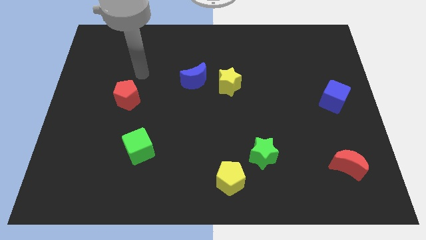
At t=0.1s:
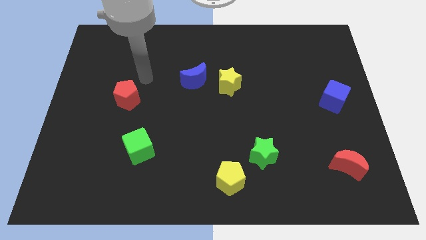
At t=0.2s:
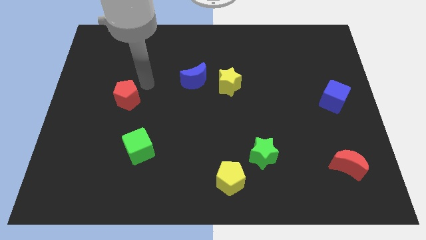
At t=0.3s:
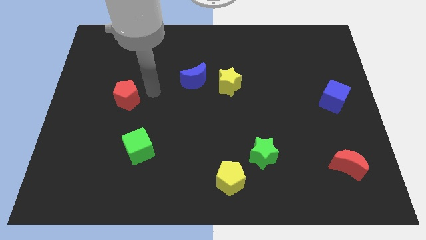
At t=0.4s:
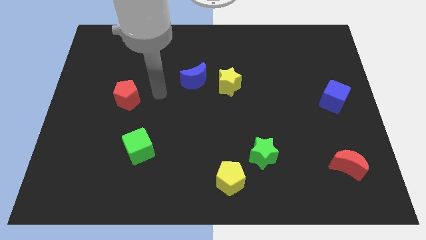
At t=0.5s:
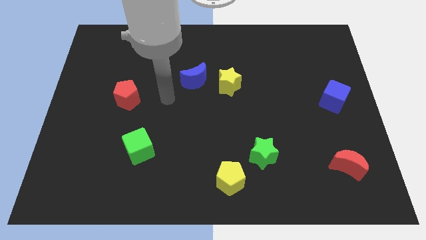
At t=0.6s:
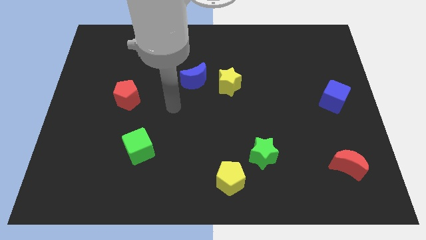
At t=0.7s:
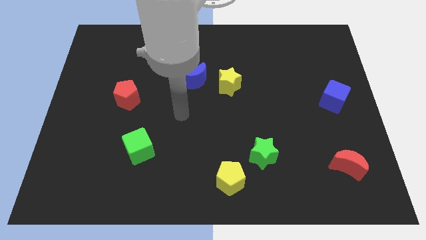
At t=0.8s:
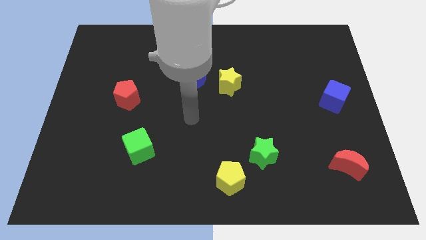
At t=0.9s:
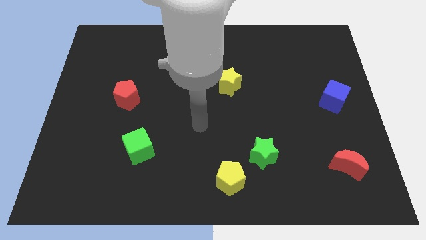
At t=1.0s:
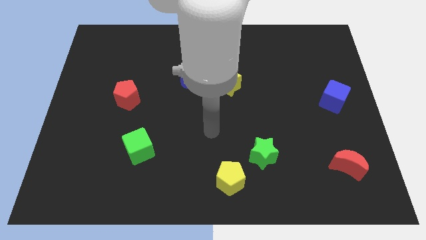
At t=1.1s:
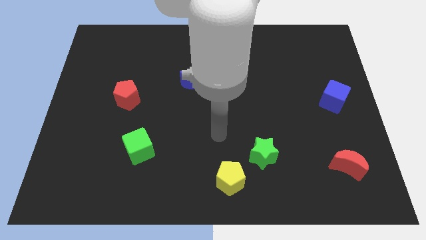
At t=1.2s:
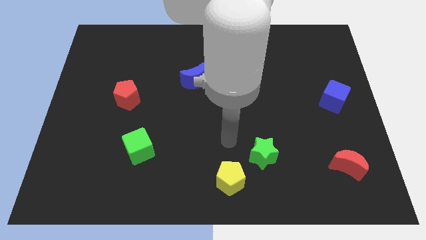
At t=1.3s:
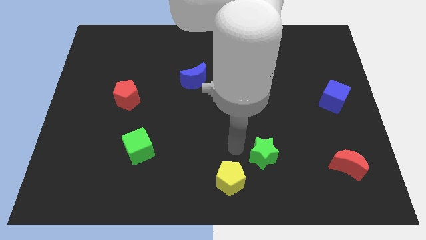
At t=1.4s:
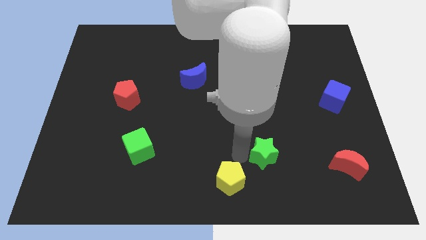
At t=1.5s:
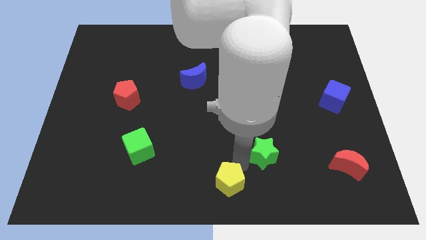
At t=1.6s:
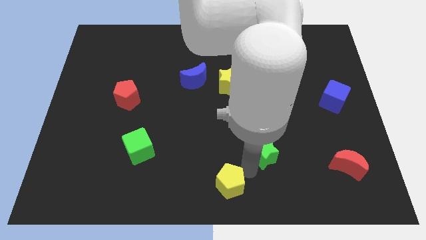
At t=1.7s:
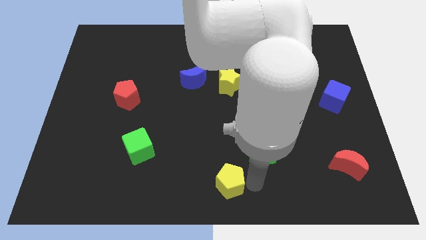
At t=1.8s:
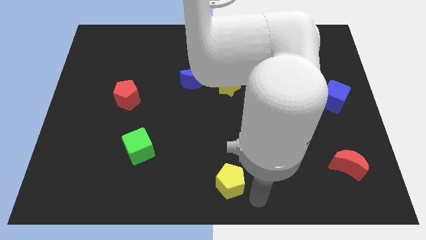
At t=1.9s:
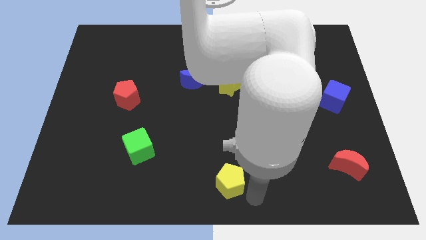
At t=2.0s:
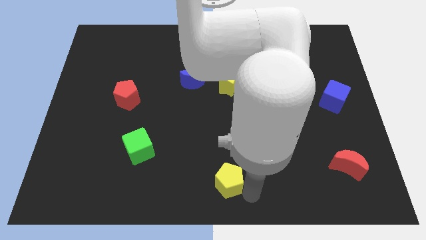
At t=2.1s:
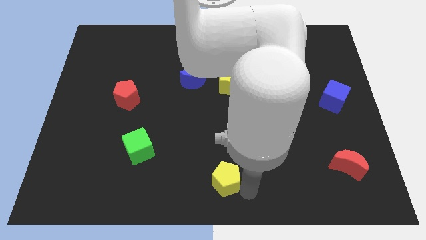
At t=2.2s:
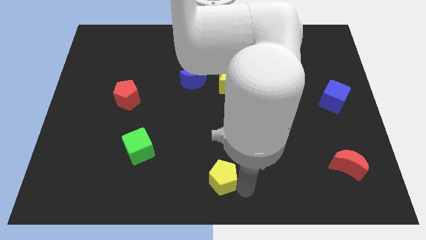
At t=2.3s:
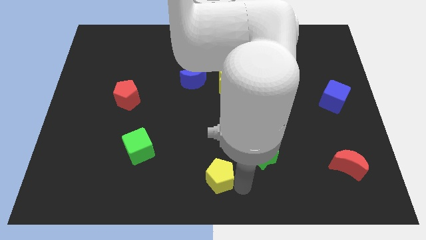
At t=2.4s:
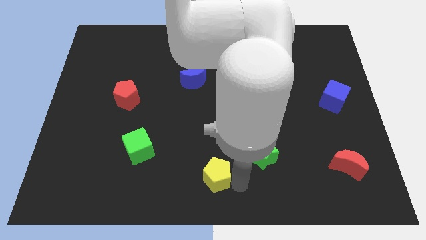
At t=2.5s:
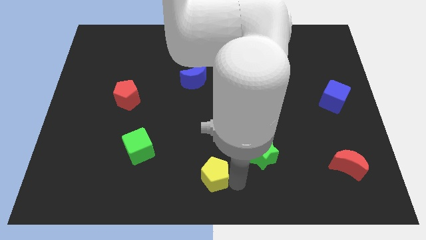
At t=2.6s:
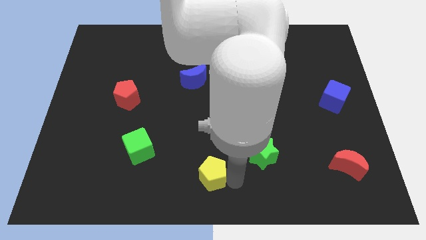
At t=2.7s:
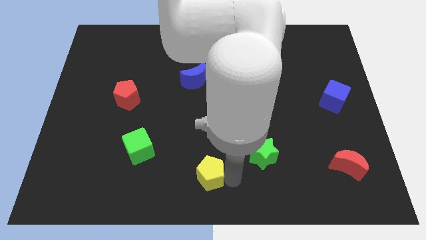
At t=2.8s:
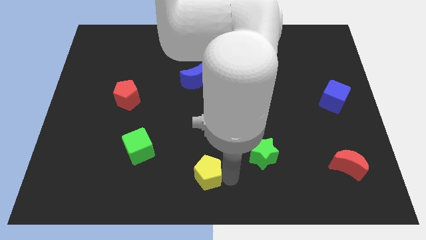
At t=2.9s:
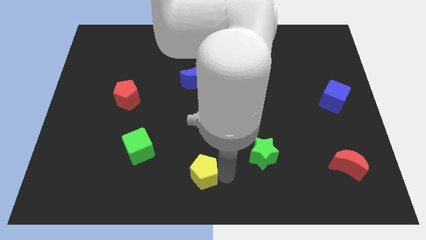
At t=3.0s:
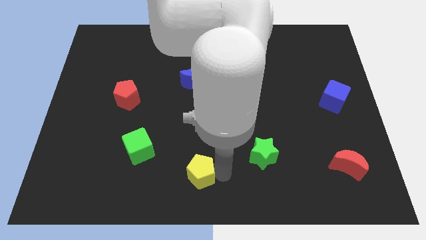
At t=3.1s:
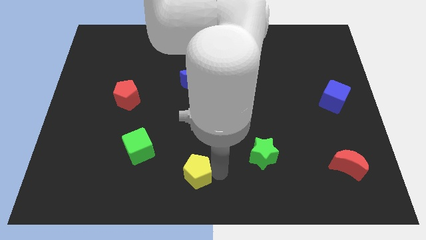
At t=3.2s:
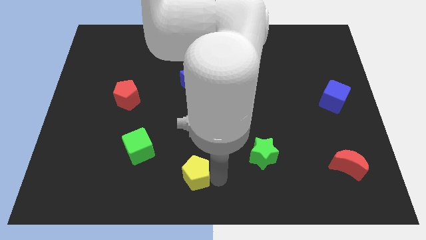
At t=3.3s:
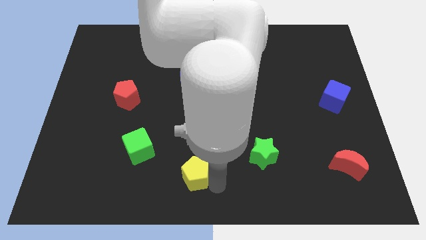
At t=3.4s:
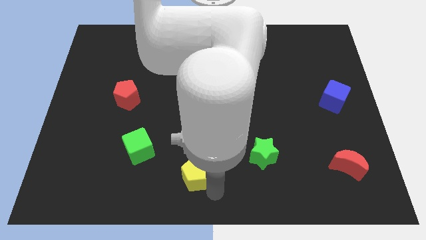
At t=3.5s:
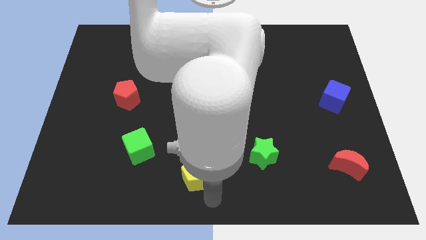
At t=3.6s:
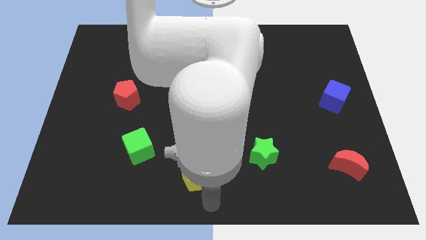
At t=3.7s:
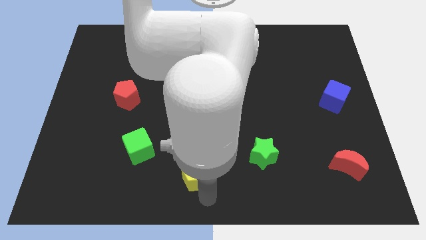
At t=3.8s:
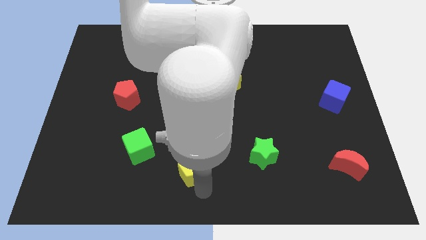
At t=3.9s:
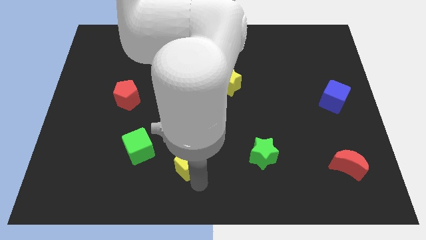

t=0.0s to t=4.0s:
move the yellow pentagon upwards and to the left diagonally somewhat

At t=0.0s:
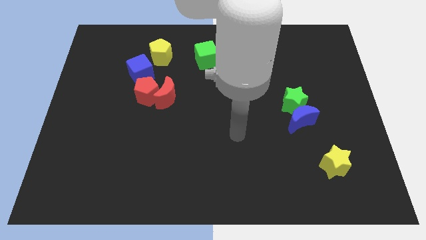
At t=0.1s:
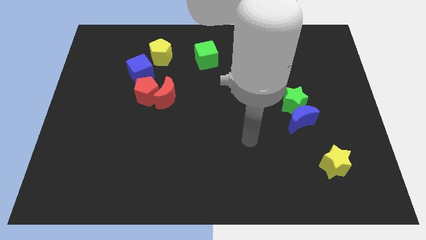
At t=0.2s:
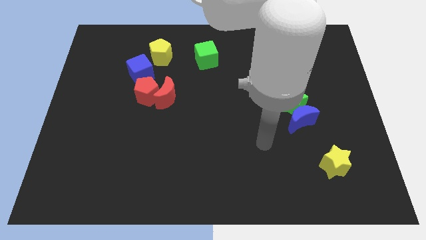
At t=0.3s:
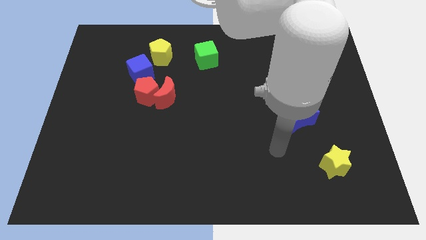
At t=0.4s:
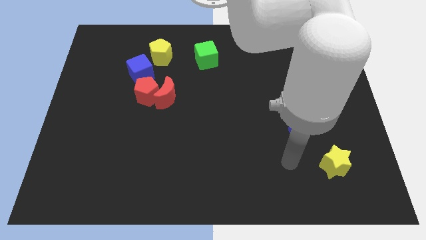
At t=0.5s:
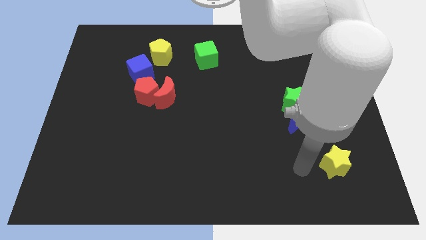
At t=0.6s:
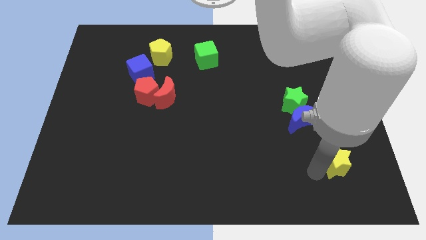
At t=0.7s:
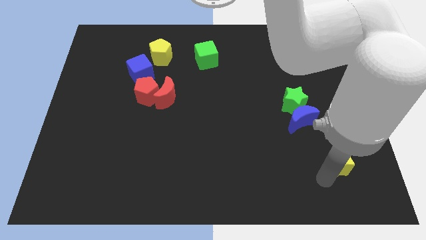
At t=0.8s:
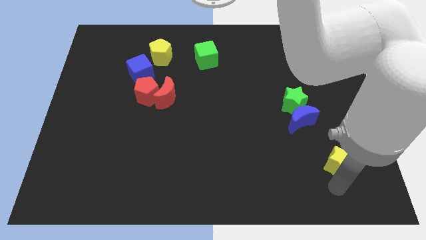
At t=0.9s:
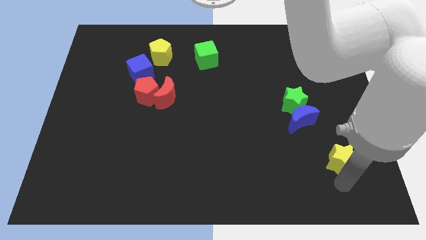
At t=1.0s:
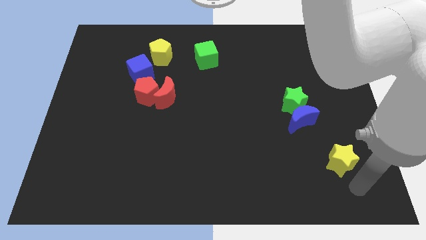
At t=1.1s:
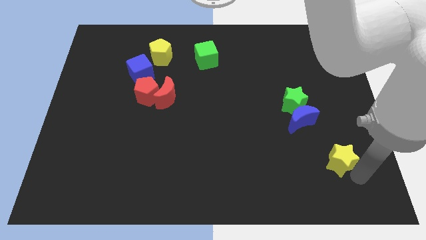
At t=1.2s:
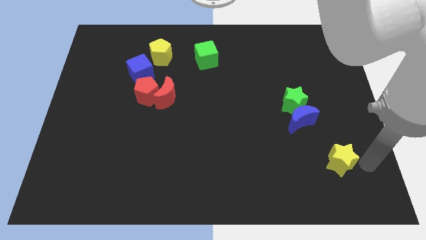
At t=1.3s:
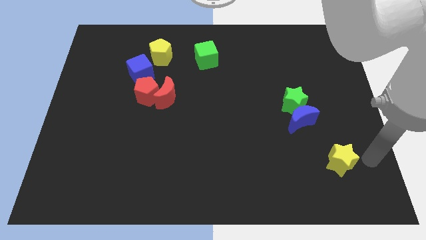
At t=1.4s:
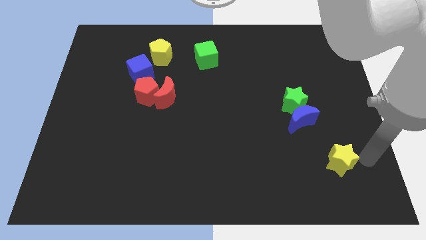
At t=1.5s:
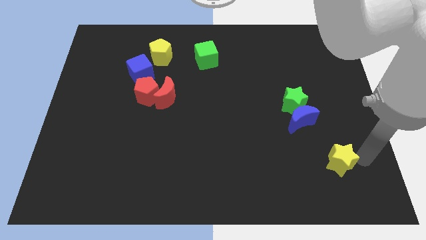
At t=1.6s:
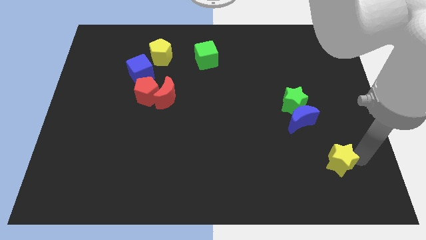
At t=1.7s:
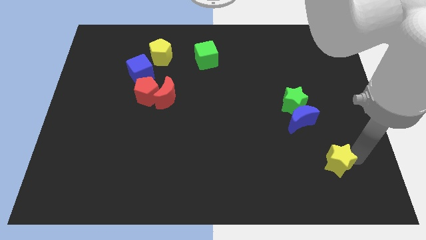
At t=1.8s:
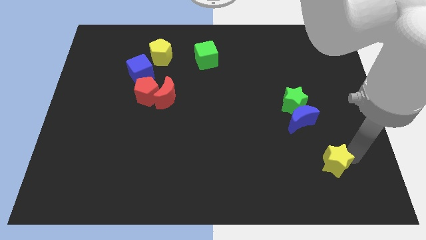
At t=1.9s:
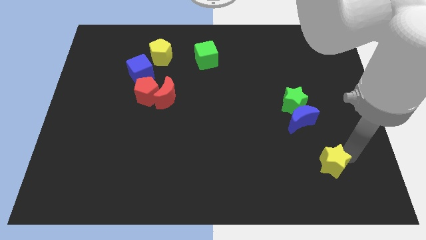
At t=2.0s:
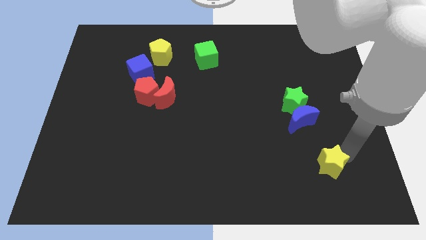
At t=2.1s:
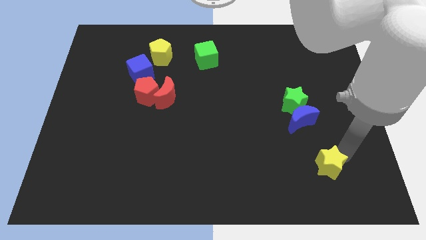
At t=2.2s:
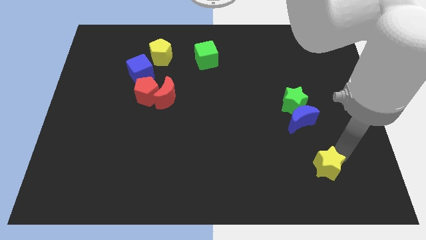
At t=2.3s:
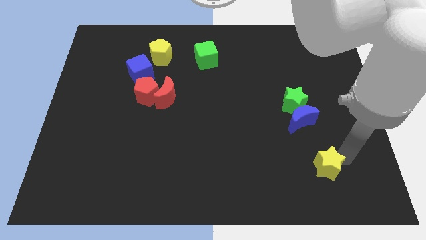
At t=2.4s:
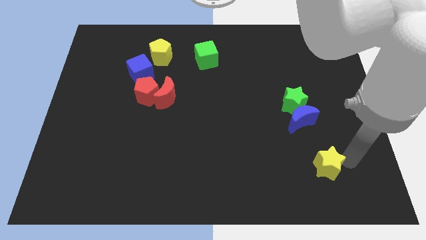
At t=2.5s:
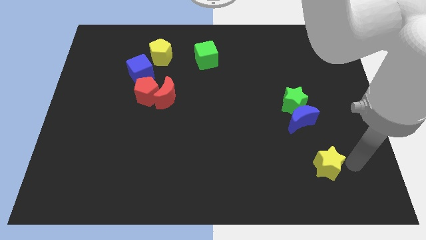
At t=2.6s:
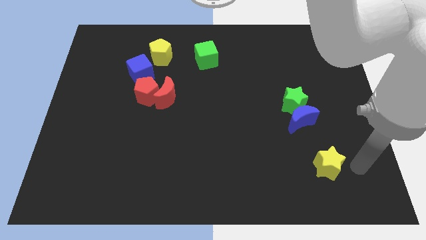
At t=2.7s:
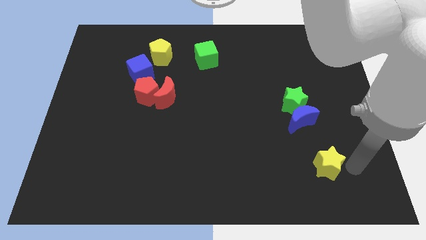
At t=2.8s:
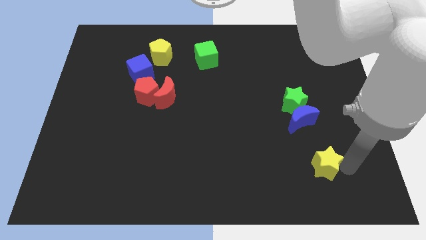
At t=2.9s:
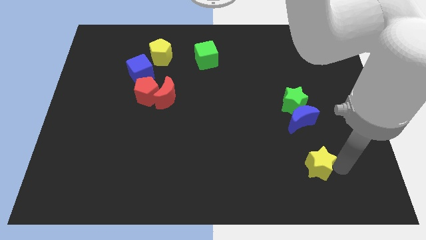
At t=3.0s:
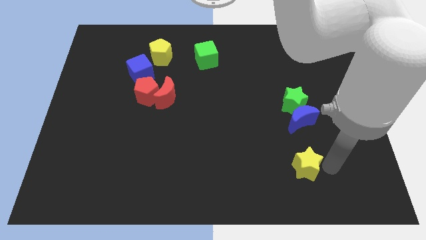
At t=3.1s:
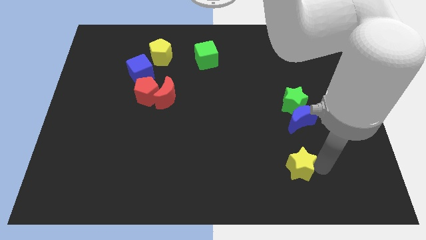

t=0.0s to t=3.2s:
slightly push the yellow star to the left

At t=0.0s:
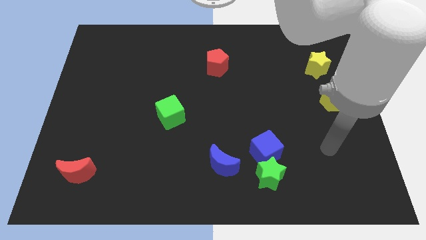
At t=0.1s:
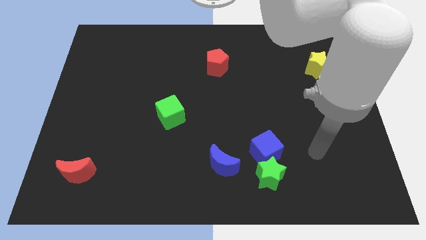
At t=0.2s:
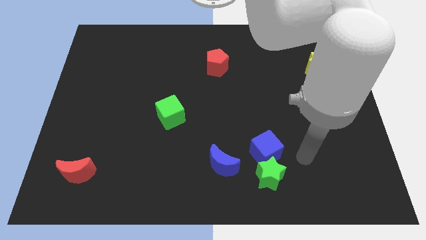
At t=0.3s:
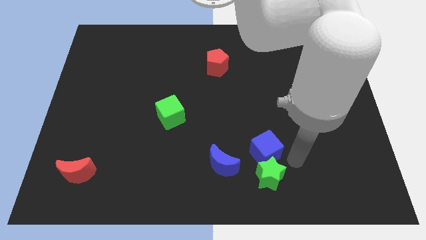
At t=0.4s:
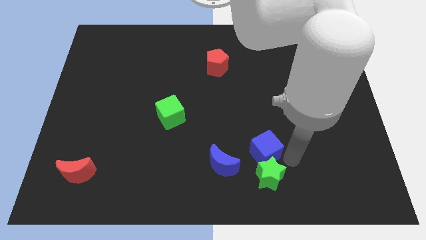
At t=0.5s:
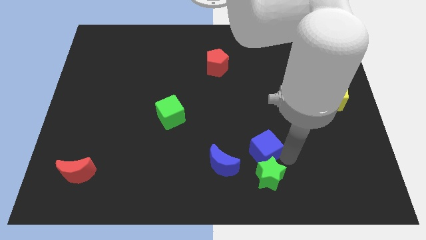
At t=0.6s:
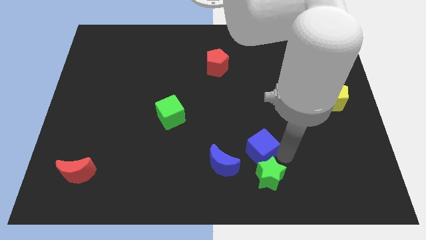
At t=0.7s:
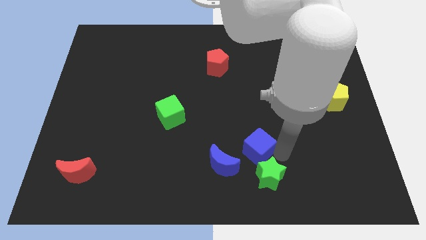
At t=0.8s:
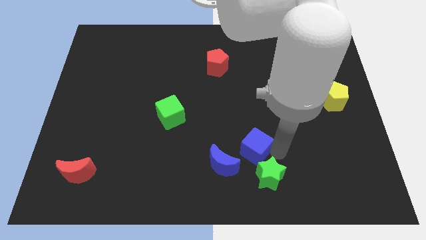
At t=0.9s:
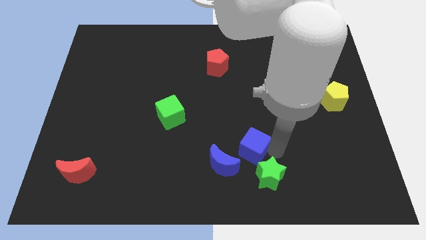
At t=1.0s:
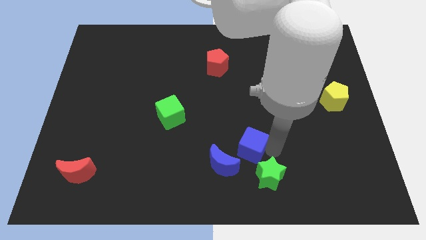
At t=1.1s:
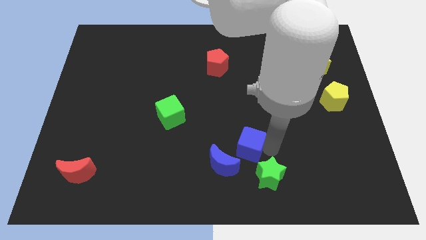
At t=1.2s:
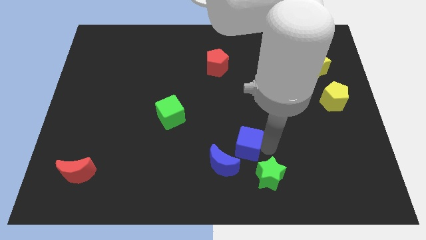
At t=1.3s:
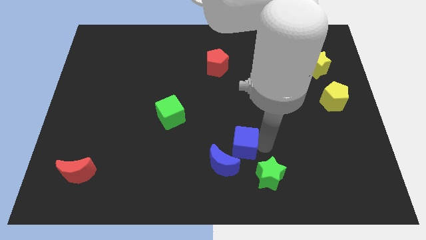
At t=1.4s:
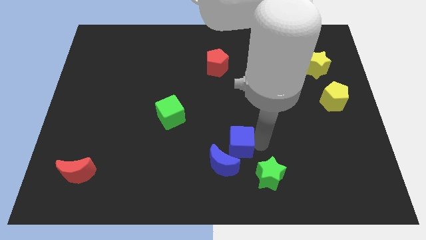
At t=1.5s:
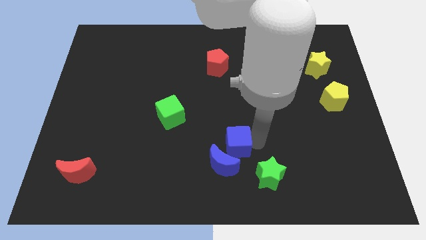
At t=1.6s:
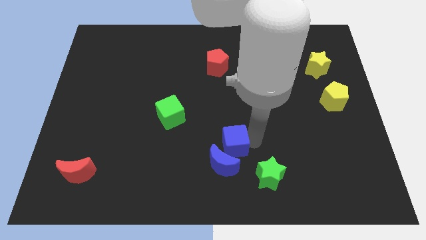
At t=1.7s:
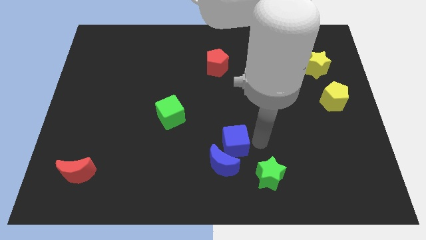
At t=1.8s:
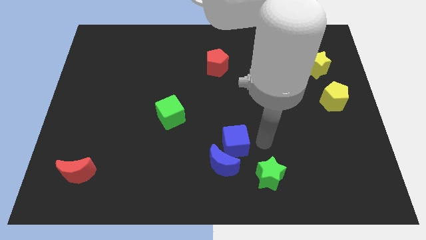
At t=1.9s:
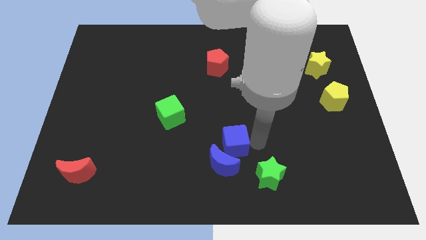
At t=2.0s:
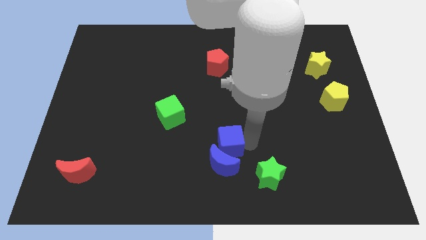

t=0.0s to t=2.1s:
slide the blue cube a bit left
